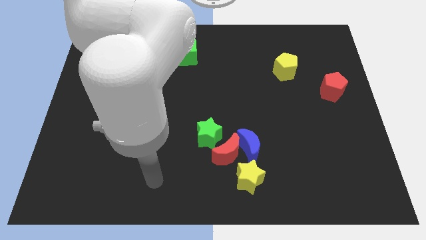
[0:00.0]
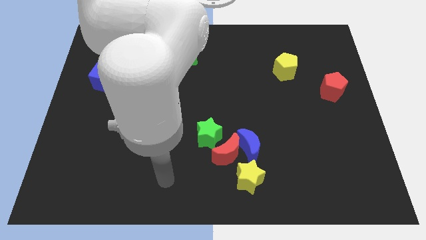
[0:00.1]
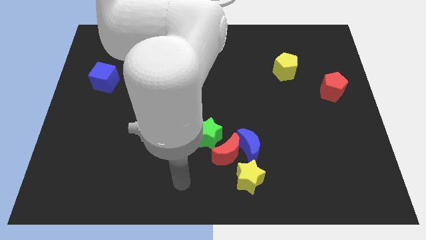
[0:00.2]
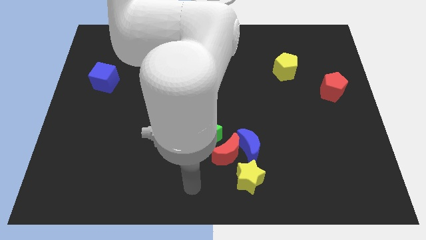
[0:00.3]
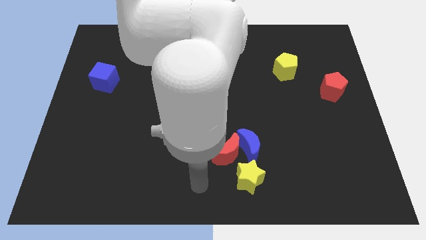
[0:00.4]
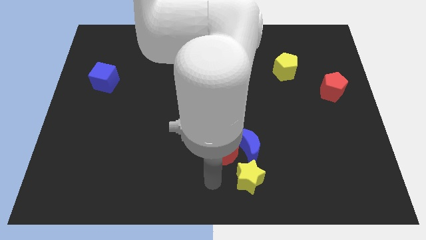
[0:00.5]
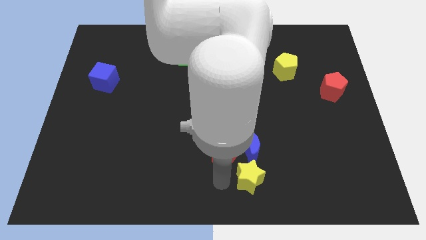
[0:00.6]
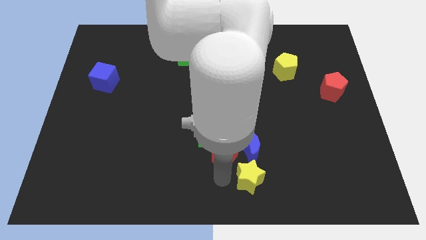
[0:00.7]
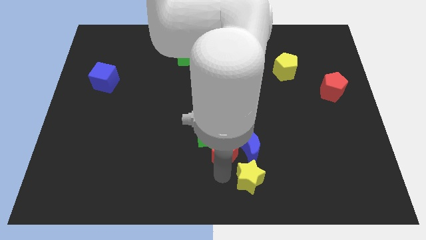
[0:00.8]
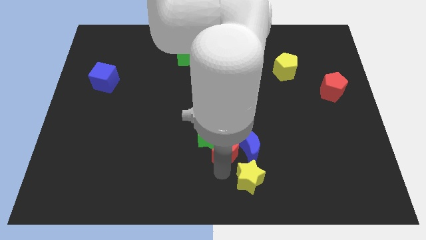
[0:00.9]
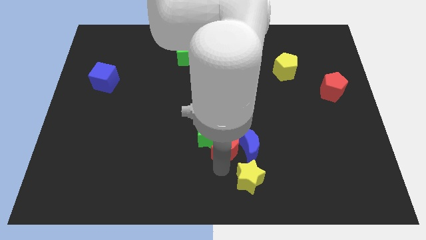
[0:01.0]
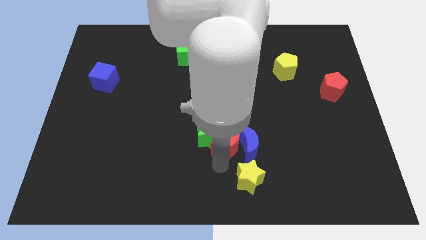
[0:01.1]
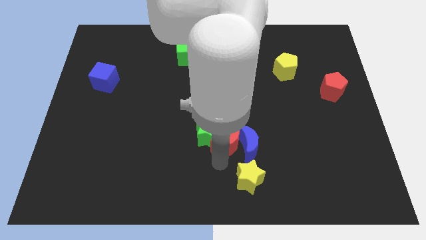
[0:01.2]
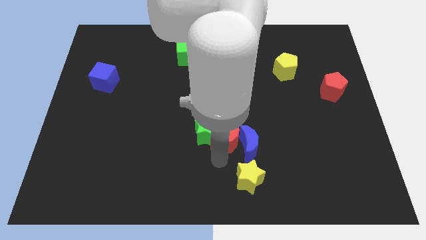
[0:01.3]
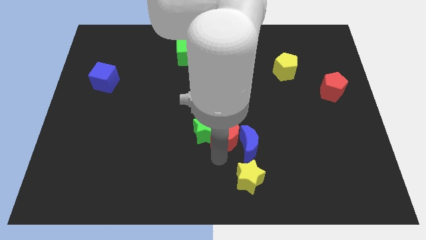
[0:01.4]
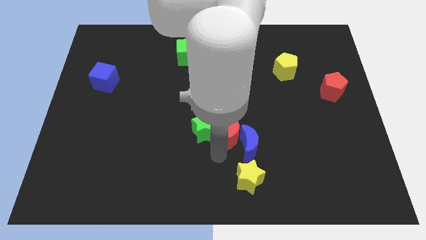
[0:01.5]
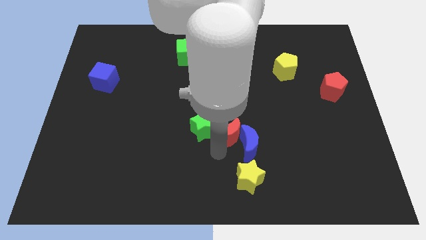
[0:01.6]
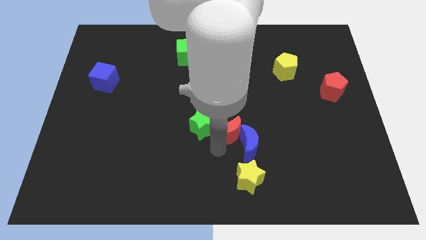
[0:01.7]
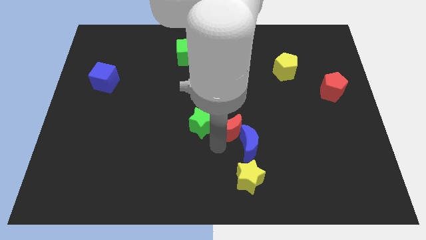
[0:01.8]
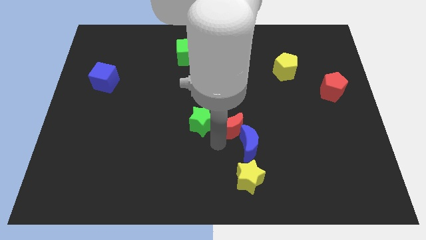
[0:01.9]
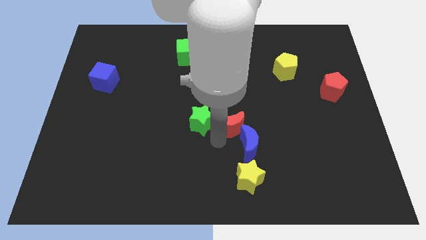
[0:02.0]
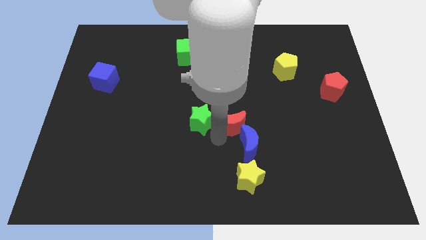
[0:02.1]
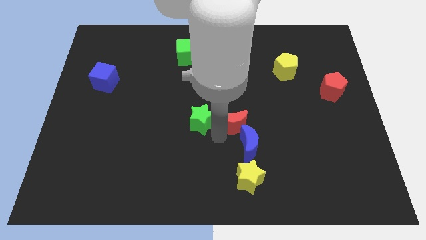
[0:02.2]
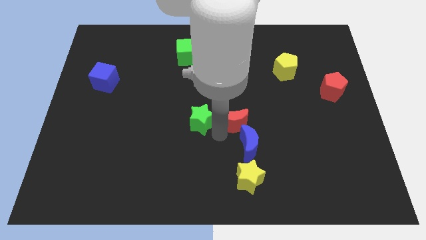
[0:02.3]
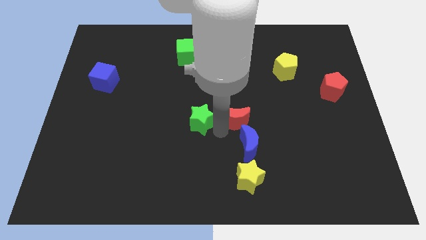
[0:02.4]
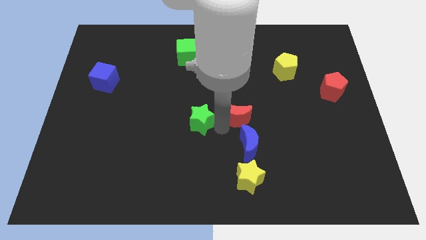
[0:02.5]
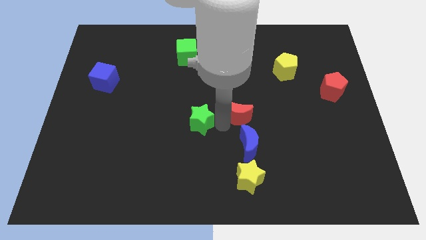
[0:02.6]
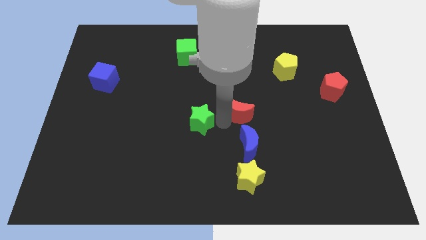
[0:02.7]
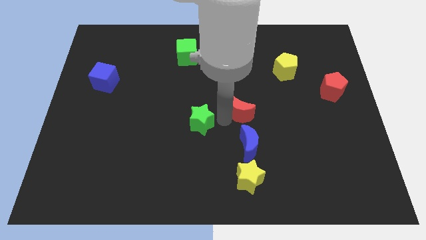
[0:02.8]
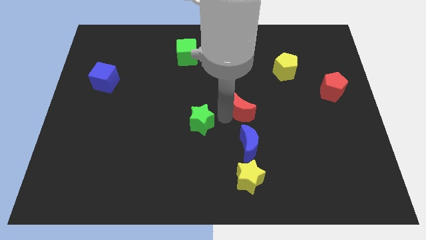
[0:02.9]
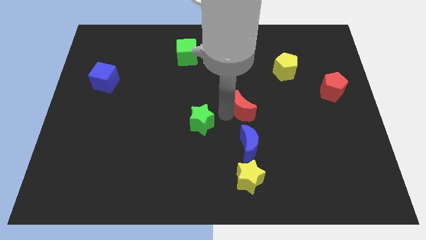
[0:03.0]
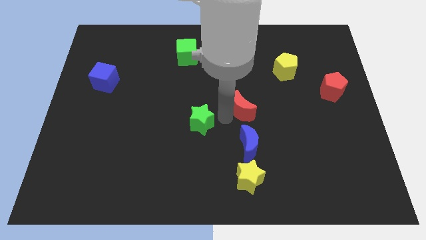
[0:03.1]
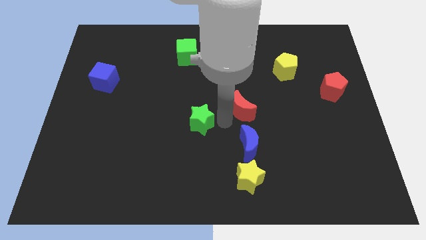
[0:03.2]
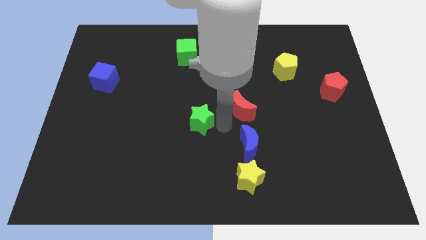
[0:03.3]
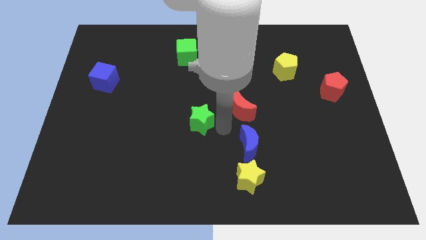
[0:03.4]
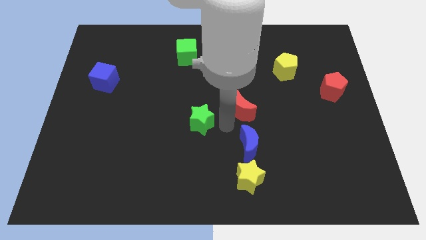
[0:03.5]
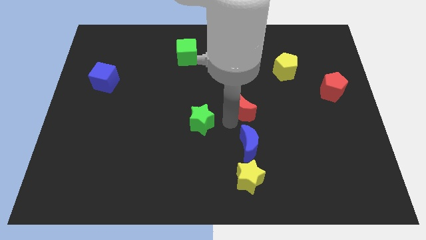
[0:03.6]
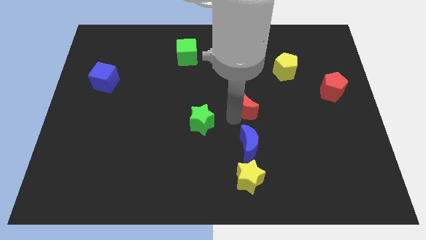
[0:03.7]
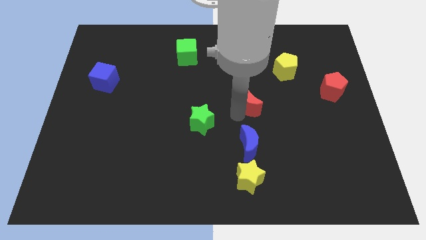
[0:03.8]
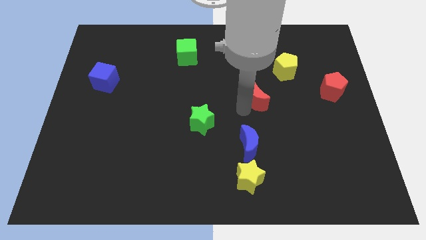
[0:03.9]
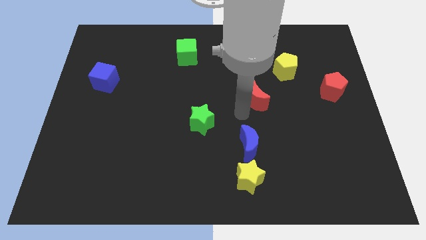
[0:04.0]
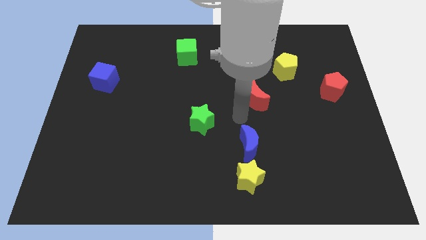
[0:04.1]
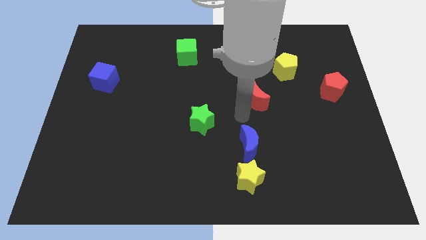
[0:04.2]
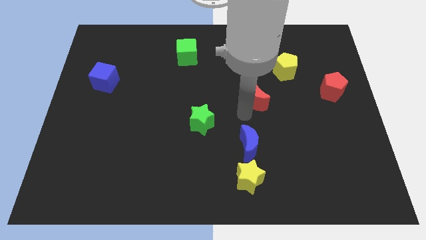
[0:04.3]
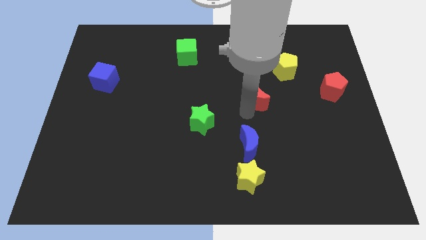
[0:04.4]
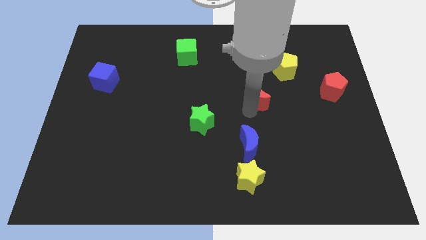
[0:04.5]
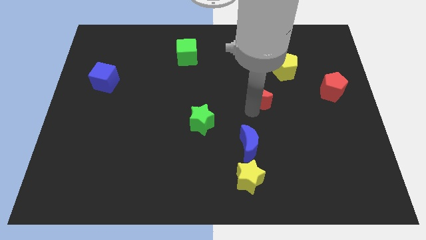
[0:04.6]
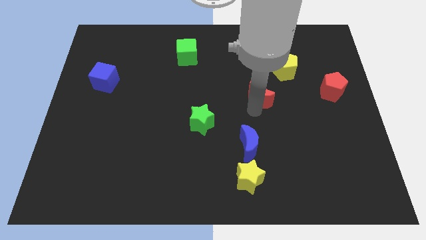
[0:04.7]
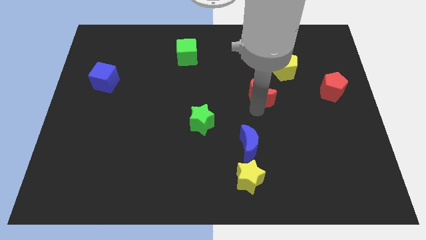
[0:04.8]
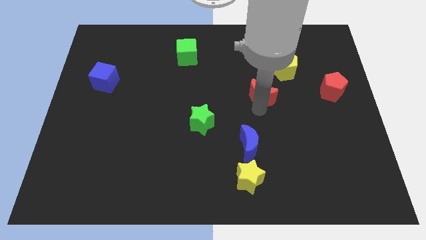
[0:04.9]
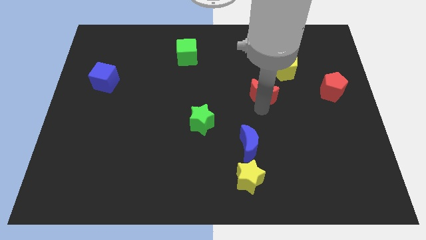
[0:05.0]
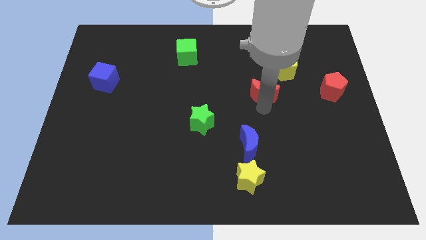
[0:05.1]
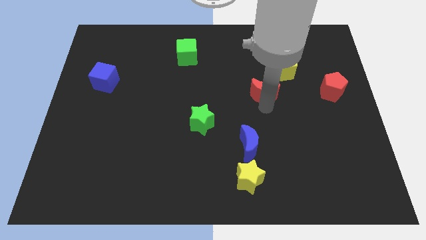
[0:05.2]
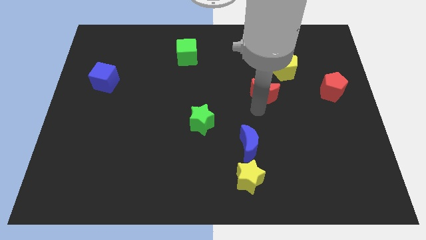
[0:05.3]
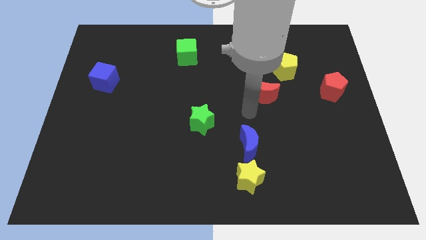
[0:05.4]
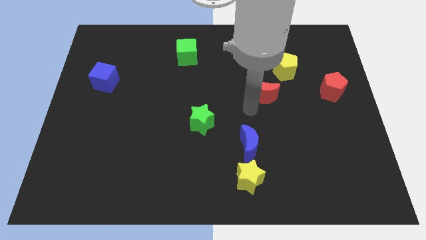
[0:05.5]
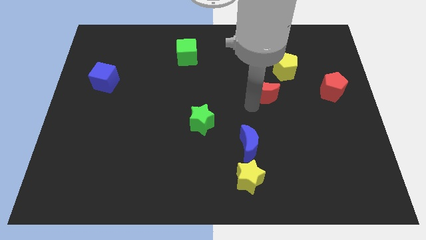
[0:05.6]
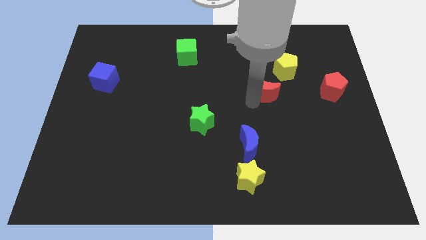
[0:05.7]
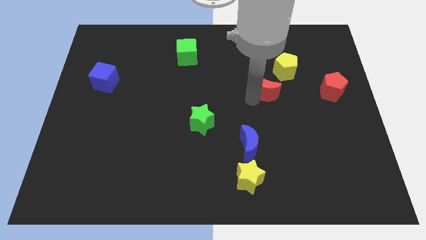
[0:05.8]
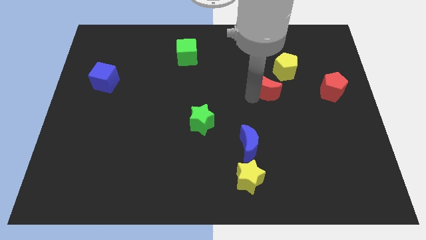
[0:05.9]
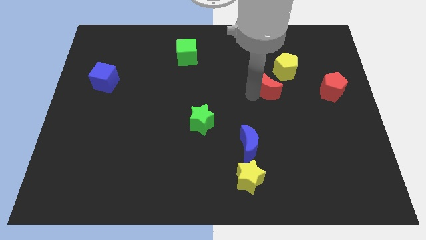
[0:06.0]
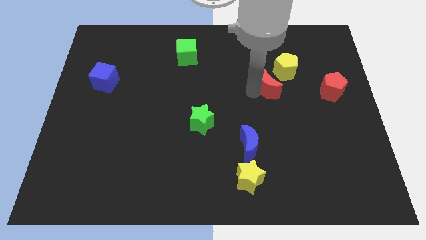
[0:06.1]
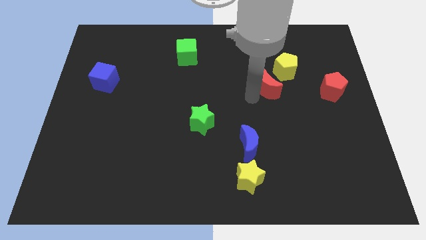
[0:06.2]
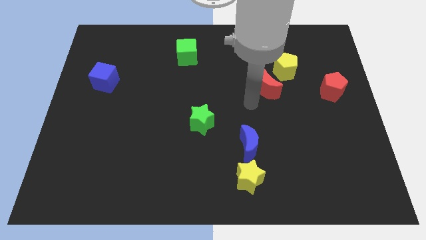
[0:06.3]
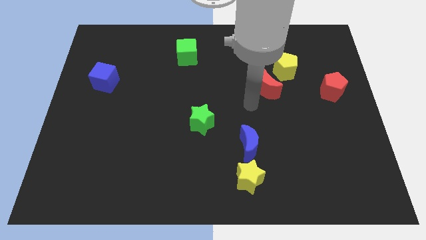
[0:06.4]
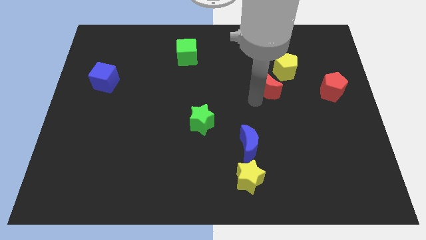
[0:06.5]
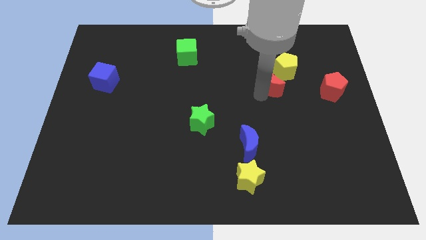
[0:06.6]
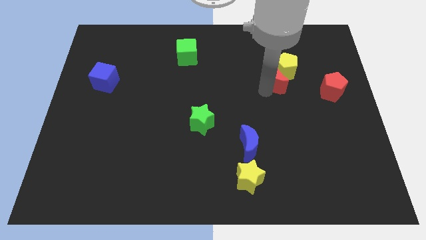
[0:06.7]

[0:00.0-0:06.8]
move the red moon to the yellow pentagon
